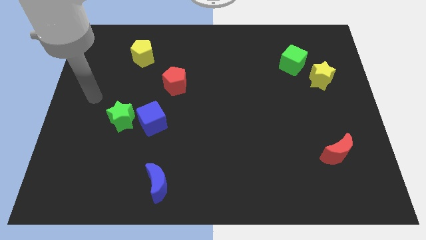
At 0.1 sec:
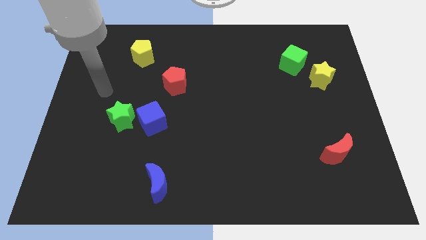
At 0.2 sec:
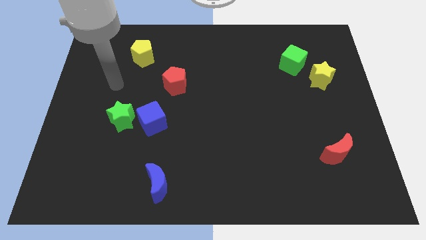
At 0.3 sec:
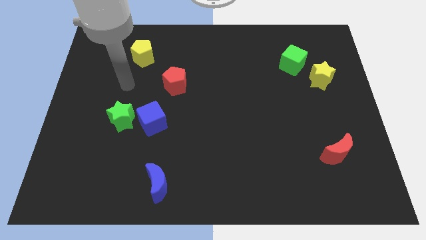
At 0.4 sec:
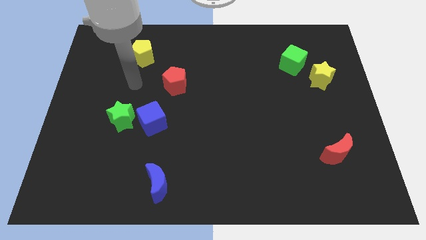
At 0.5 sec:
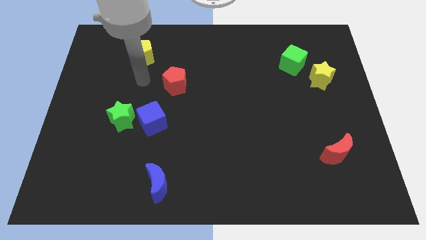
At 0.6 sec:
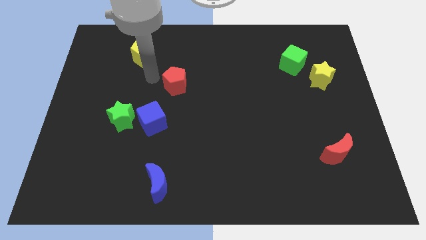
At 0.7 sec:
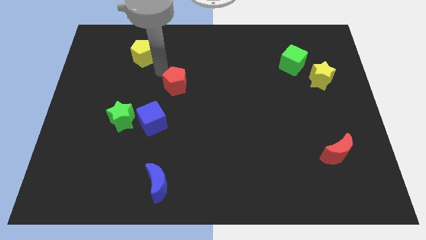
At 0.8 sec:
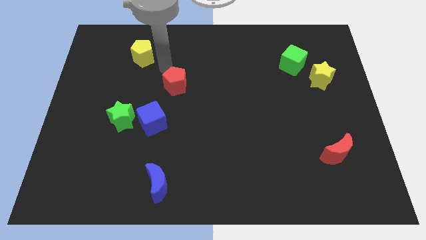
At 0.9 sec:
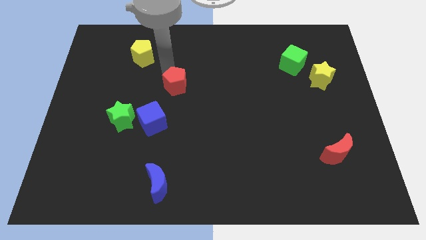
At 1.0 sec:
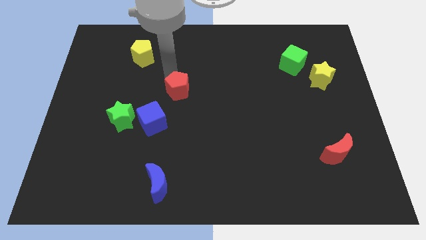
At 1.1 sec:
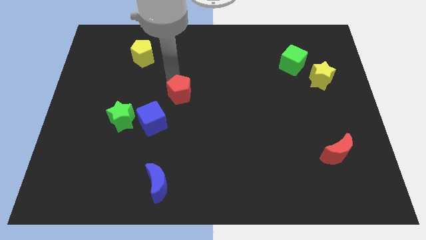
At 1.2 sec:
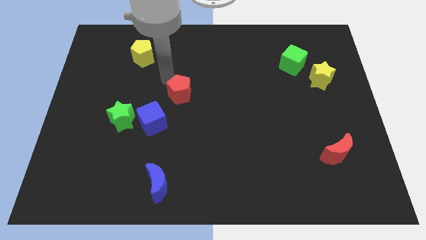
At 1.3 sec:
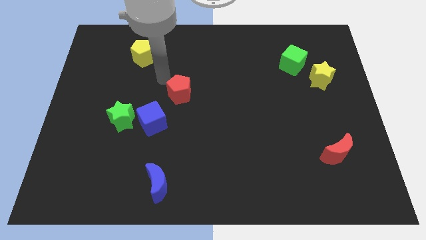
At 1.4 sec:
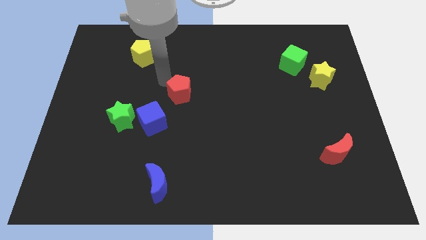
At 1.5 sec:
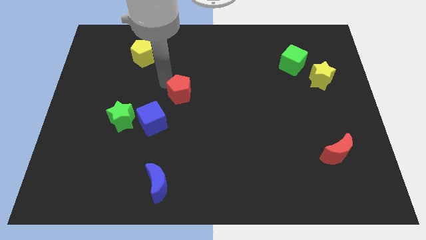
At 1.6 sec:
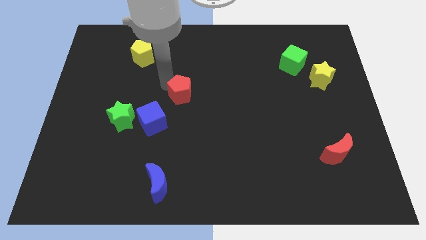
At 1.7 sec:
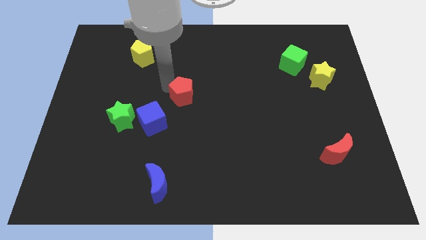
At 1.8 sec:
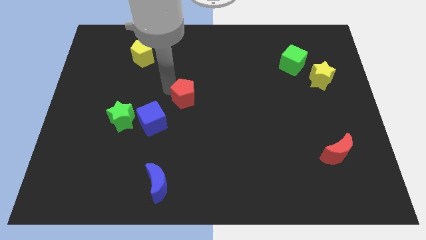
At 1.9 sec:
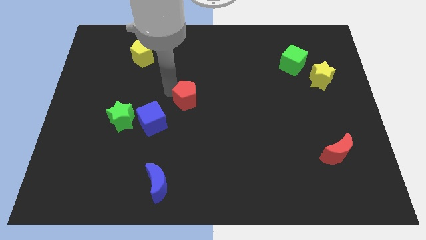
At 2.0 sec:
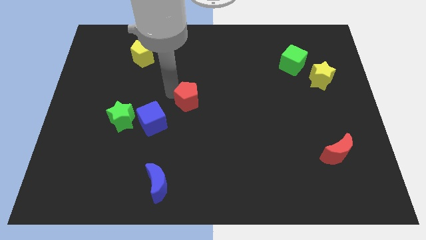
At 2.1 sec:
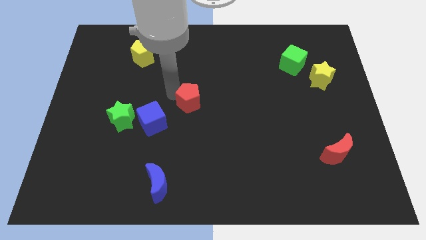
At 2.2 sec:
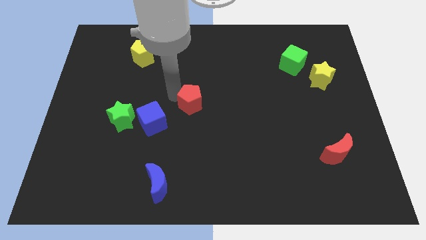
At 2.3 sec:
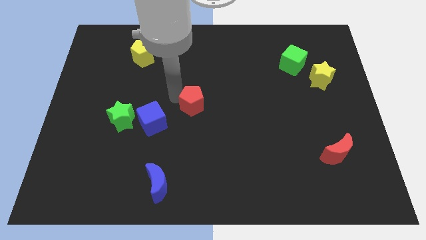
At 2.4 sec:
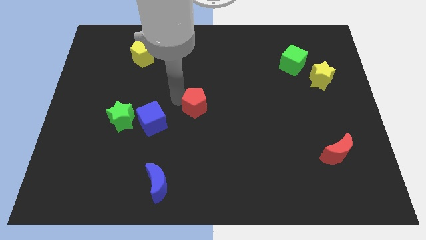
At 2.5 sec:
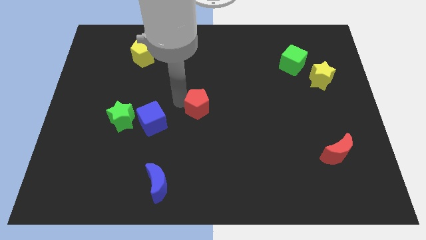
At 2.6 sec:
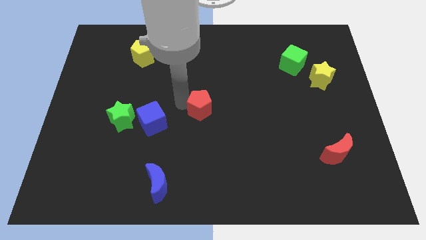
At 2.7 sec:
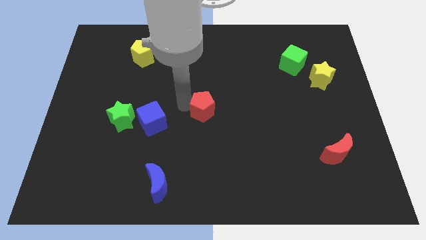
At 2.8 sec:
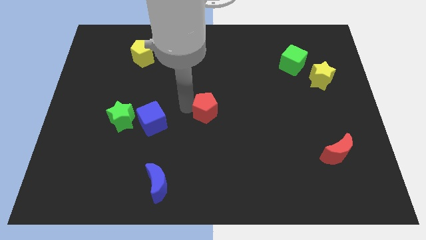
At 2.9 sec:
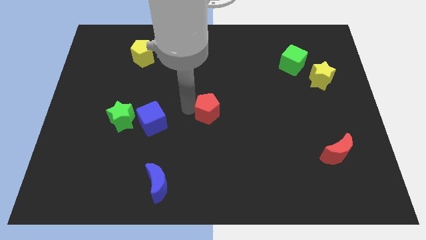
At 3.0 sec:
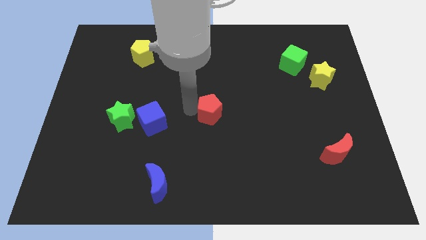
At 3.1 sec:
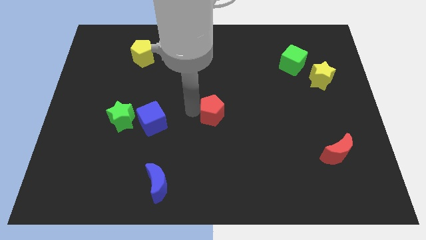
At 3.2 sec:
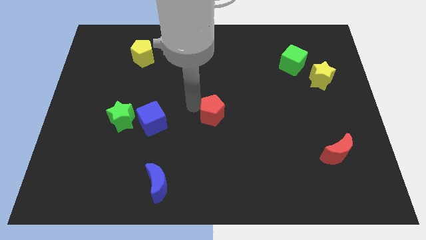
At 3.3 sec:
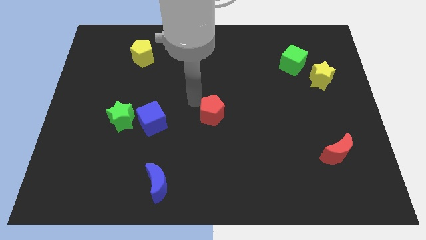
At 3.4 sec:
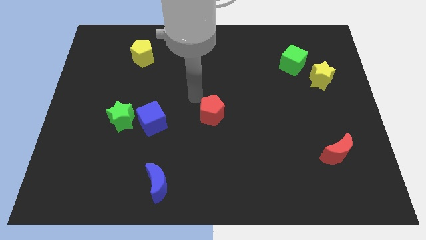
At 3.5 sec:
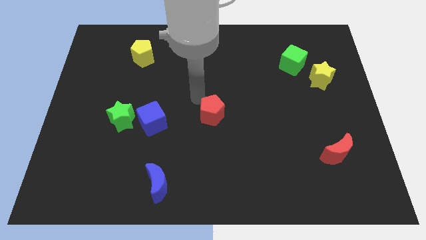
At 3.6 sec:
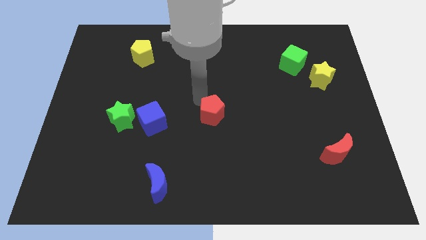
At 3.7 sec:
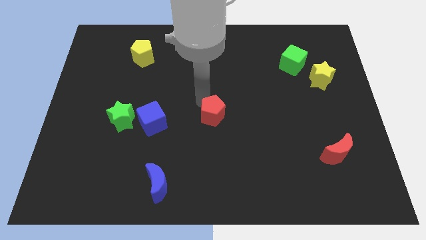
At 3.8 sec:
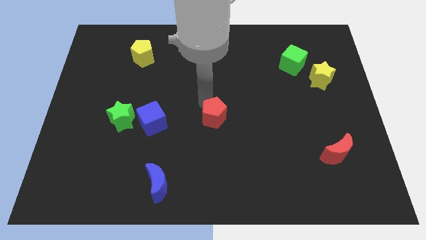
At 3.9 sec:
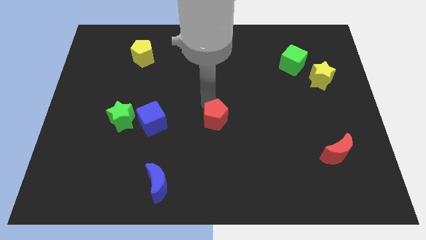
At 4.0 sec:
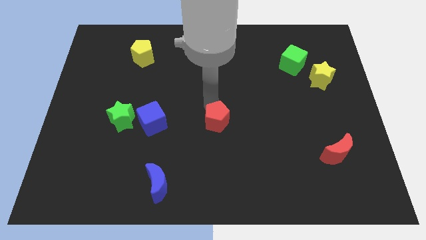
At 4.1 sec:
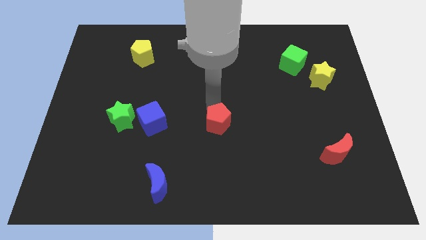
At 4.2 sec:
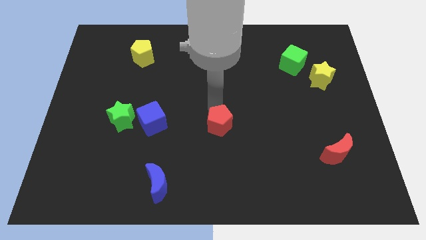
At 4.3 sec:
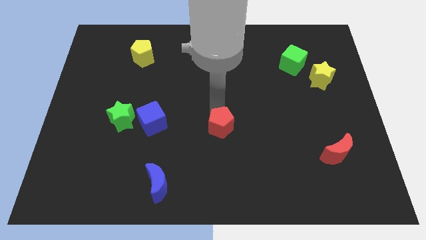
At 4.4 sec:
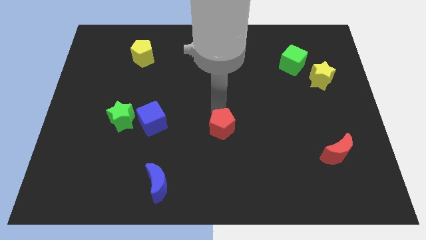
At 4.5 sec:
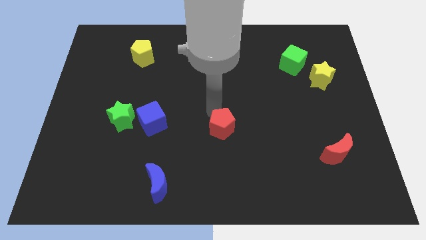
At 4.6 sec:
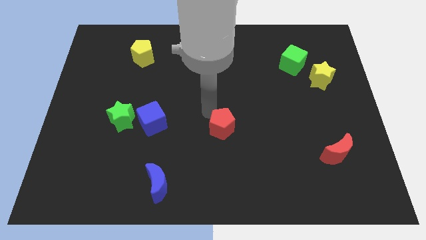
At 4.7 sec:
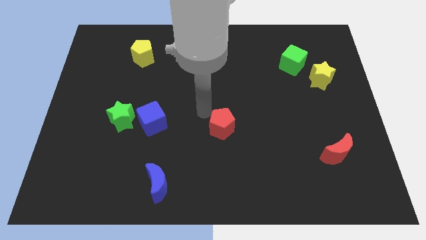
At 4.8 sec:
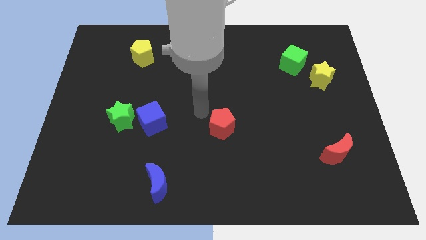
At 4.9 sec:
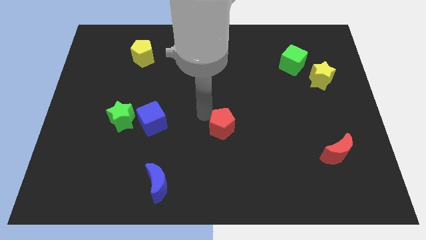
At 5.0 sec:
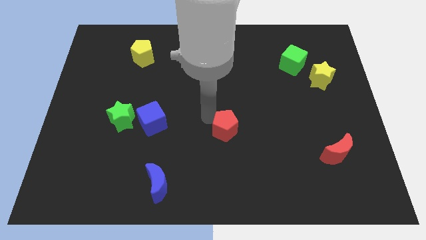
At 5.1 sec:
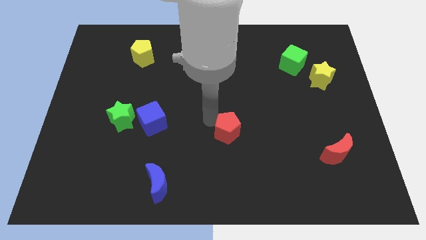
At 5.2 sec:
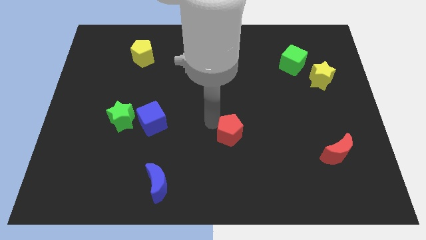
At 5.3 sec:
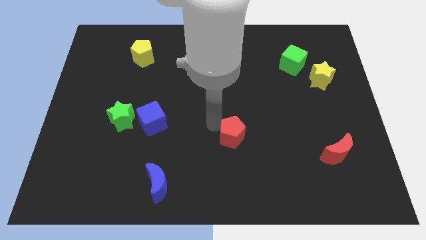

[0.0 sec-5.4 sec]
push the red pentagon down and then right

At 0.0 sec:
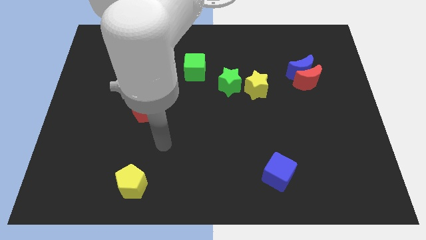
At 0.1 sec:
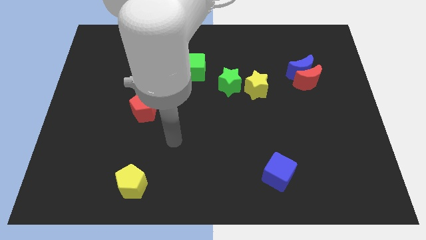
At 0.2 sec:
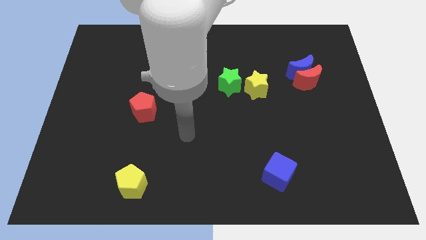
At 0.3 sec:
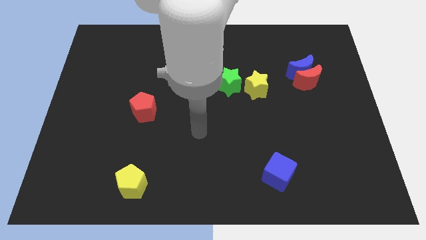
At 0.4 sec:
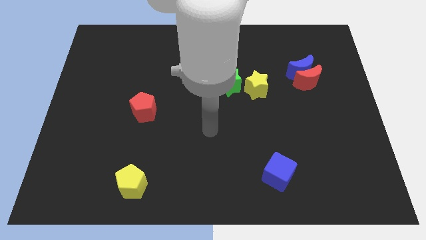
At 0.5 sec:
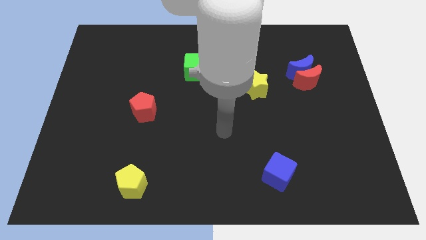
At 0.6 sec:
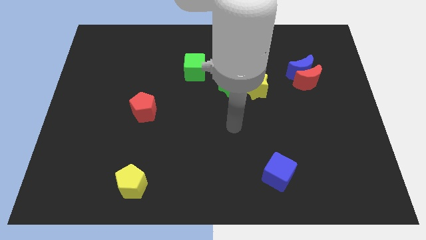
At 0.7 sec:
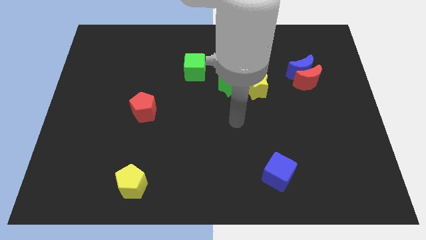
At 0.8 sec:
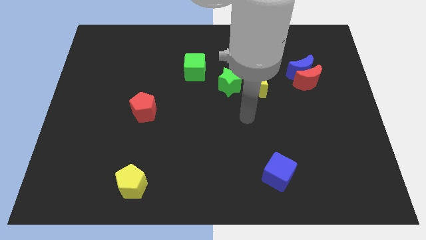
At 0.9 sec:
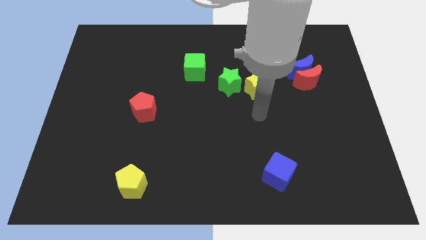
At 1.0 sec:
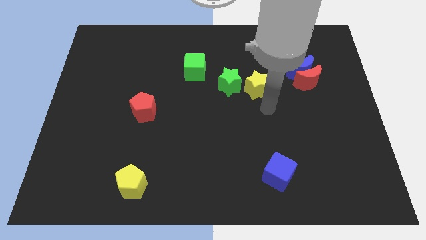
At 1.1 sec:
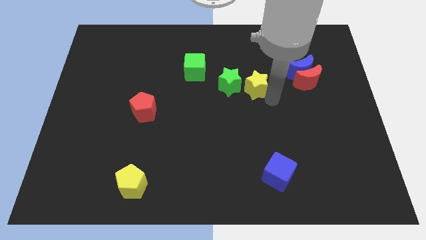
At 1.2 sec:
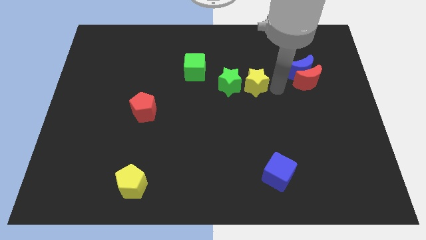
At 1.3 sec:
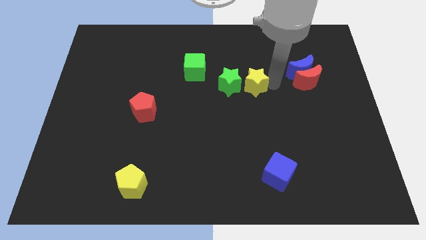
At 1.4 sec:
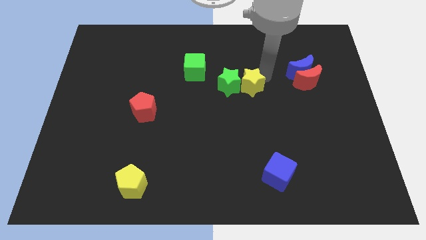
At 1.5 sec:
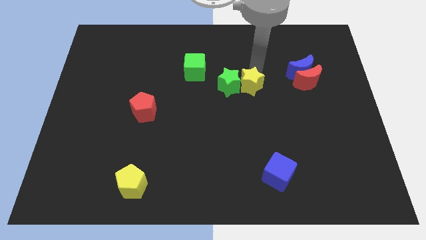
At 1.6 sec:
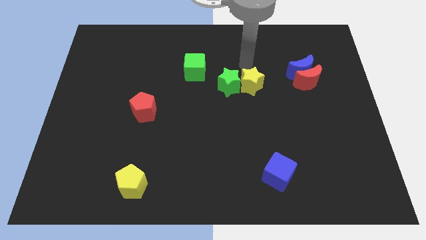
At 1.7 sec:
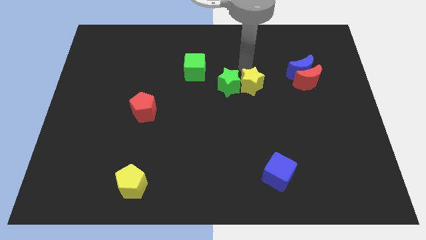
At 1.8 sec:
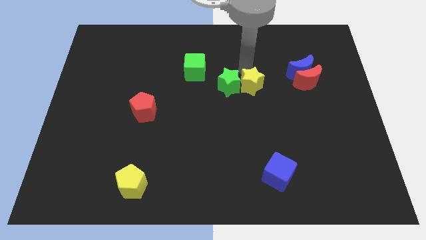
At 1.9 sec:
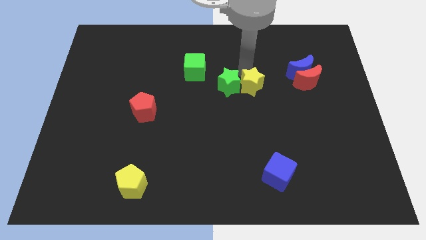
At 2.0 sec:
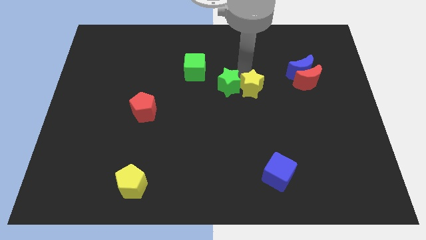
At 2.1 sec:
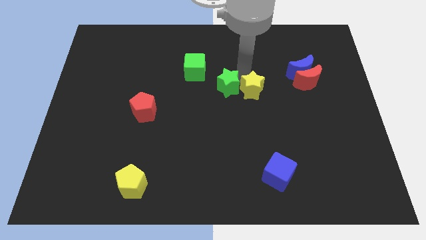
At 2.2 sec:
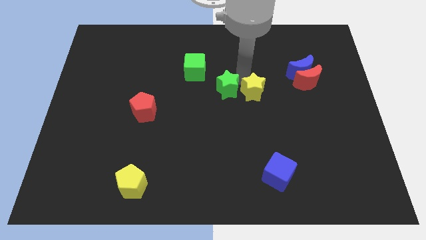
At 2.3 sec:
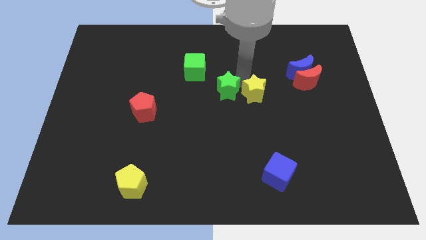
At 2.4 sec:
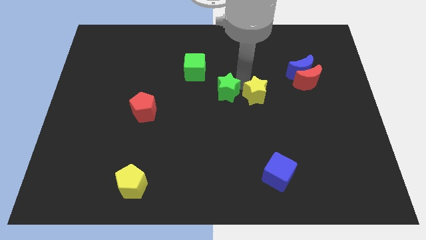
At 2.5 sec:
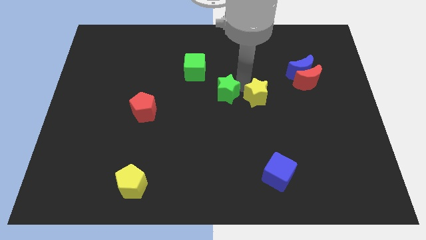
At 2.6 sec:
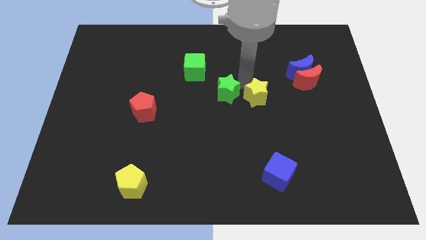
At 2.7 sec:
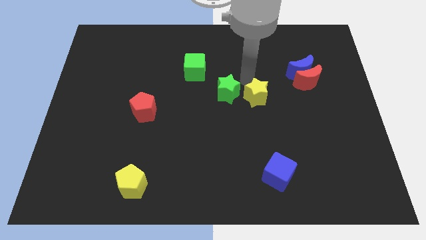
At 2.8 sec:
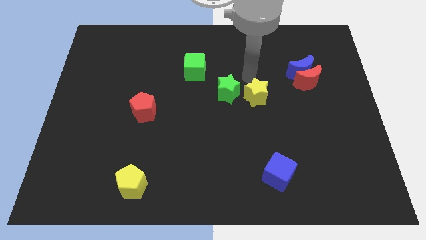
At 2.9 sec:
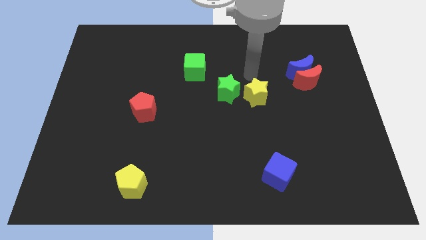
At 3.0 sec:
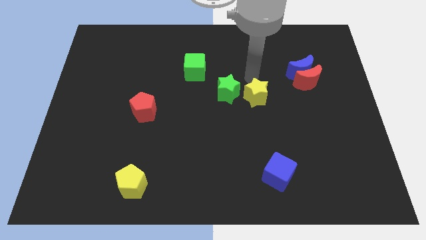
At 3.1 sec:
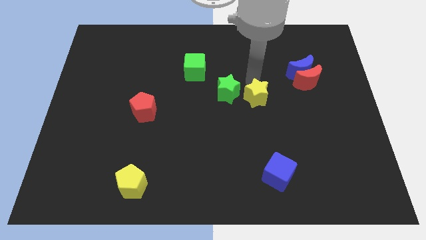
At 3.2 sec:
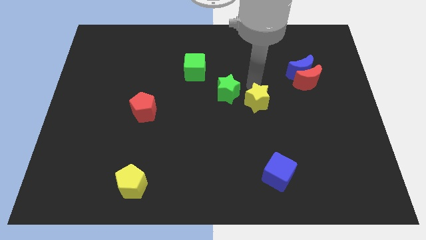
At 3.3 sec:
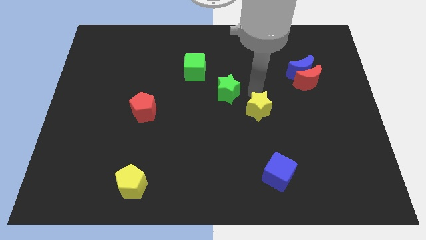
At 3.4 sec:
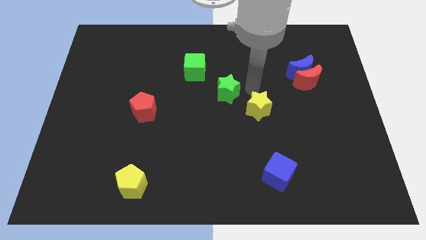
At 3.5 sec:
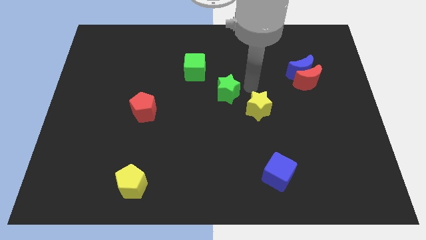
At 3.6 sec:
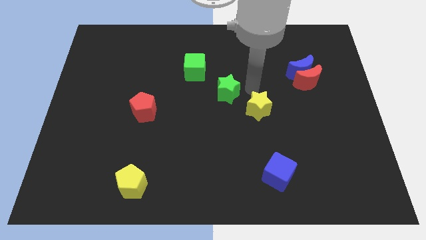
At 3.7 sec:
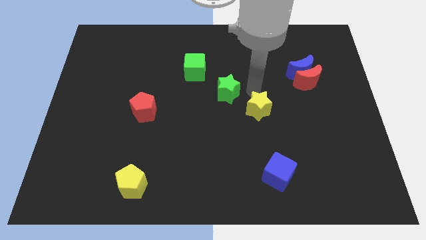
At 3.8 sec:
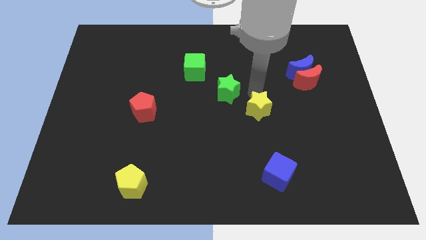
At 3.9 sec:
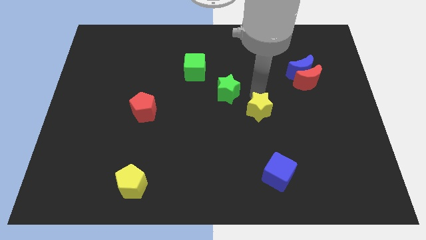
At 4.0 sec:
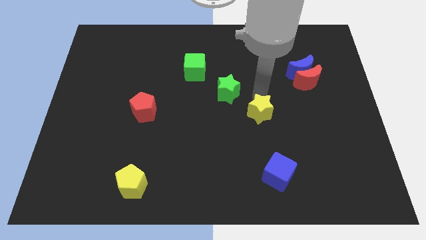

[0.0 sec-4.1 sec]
slide the yellow star a little bit downwards
